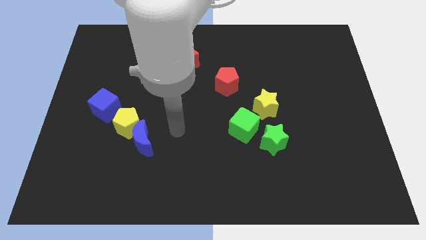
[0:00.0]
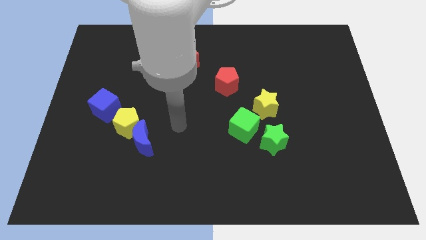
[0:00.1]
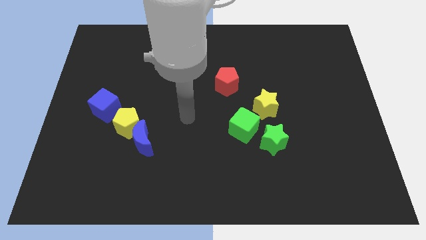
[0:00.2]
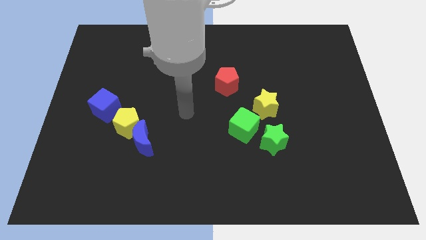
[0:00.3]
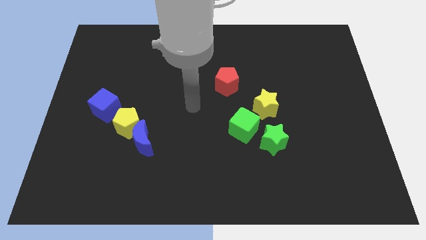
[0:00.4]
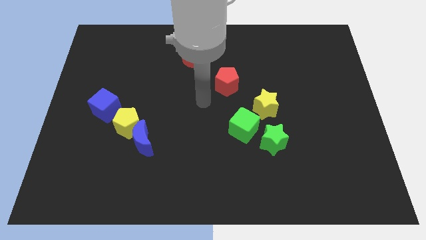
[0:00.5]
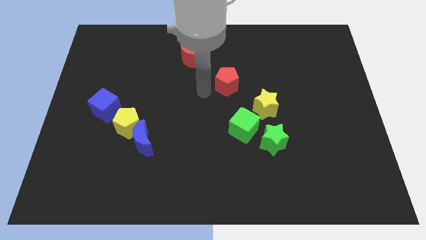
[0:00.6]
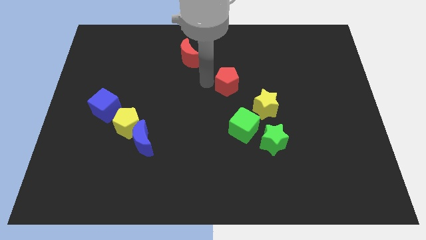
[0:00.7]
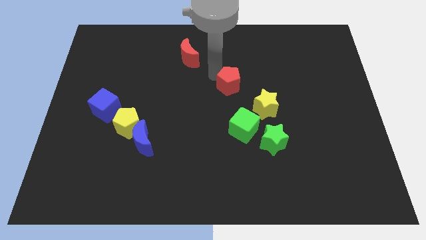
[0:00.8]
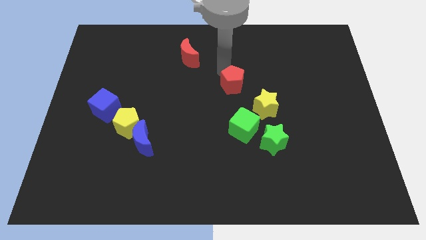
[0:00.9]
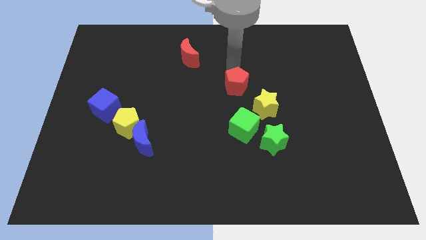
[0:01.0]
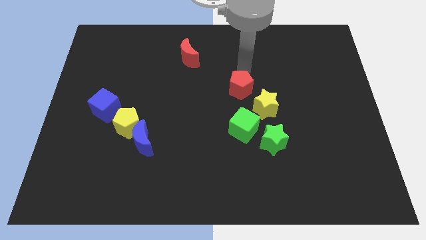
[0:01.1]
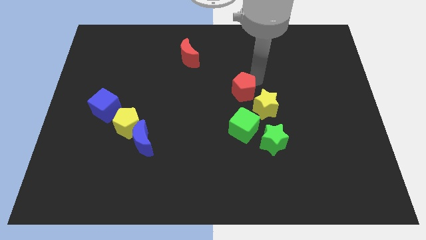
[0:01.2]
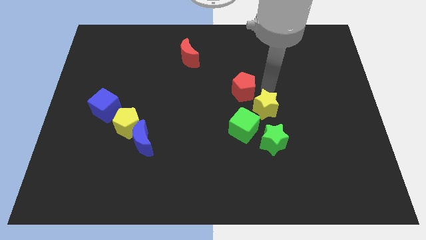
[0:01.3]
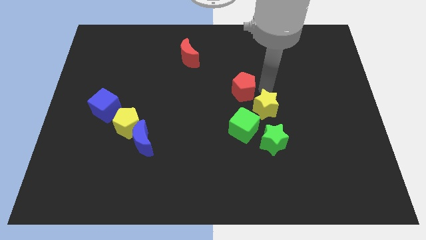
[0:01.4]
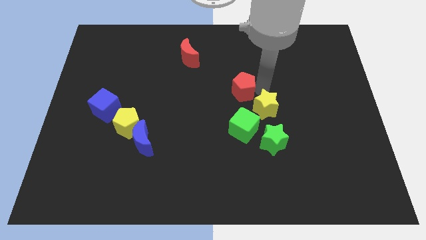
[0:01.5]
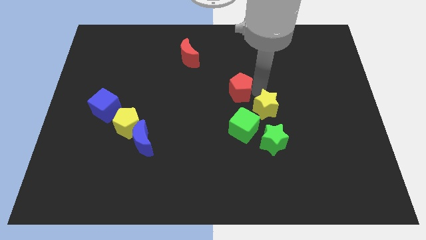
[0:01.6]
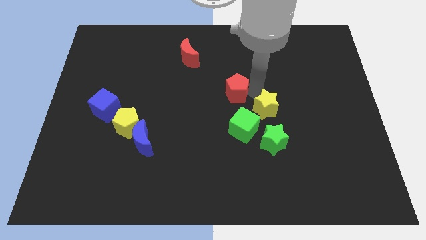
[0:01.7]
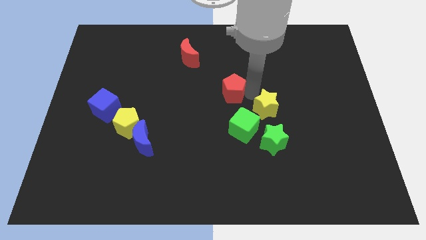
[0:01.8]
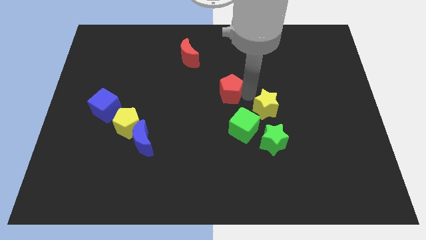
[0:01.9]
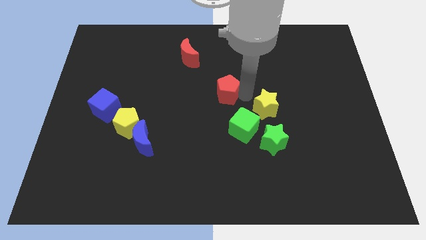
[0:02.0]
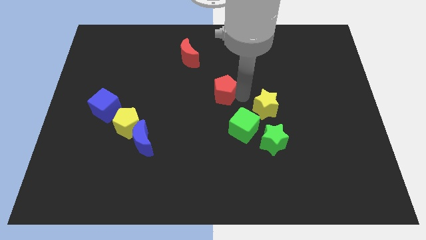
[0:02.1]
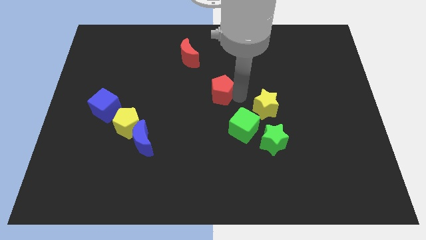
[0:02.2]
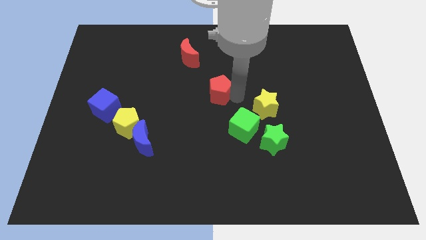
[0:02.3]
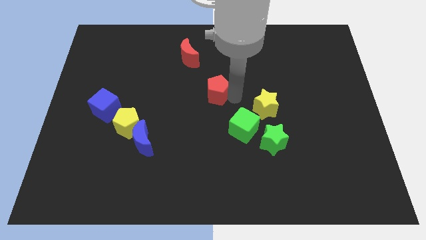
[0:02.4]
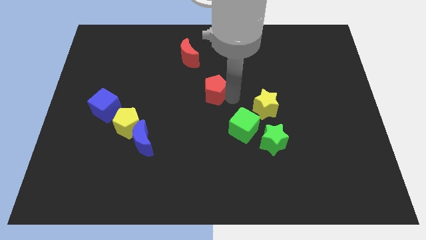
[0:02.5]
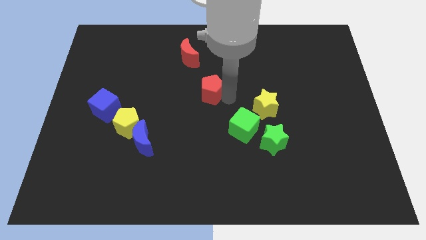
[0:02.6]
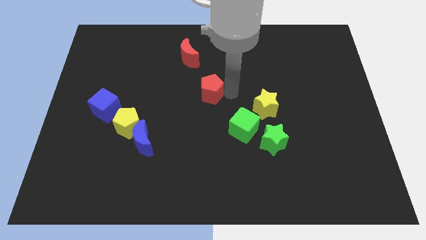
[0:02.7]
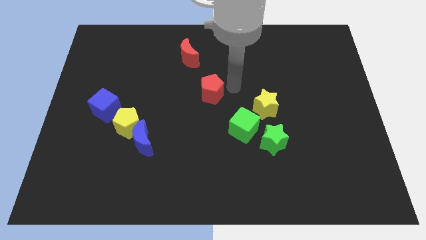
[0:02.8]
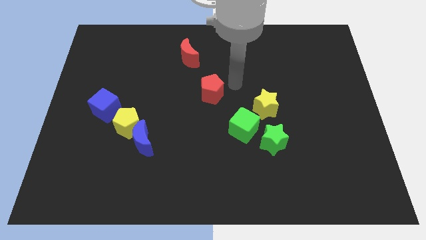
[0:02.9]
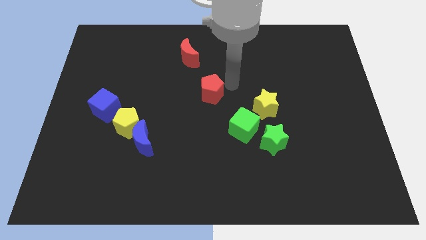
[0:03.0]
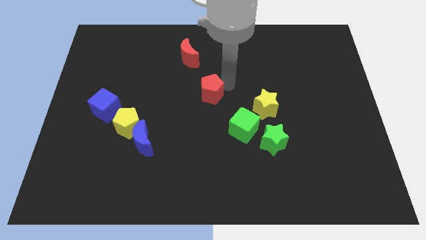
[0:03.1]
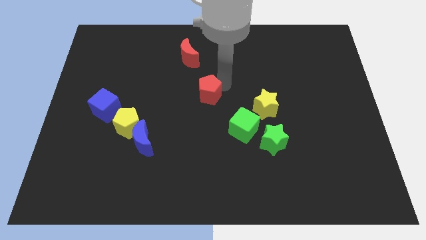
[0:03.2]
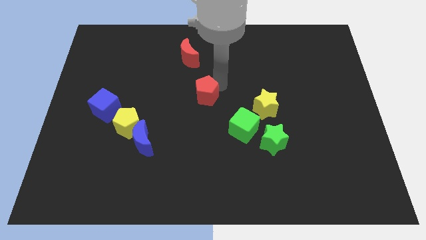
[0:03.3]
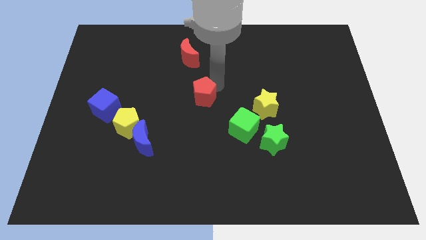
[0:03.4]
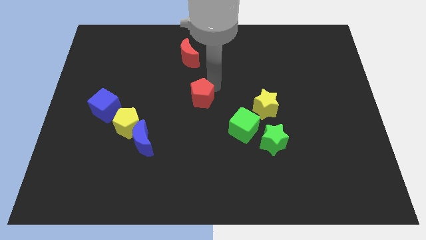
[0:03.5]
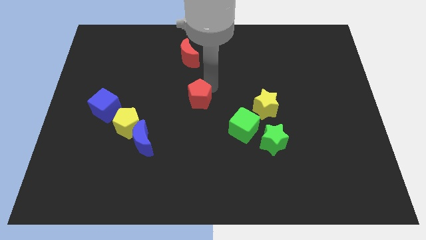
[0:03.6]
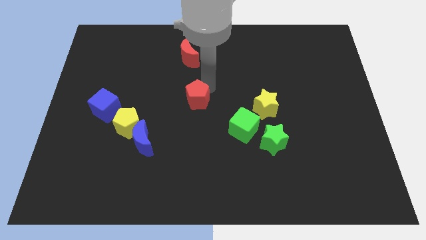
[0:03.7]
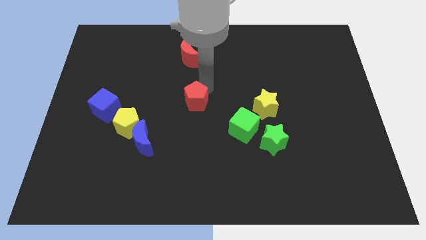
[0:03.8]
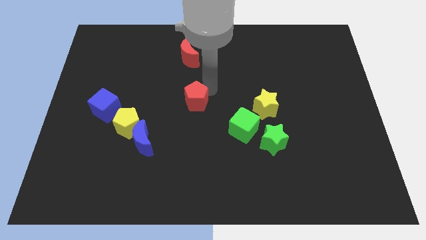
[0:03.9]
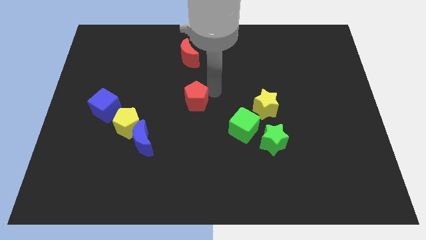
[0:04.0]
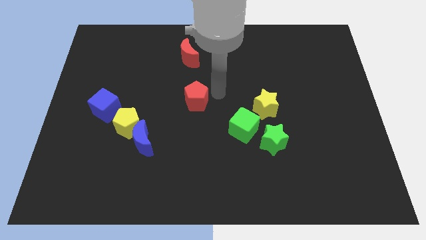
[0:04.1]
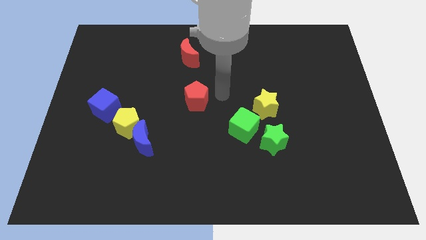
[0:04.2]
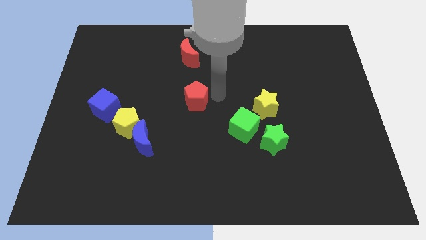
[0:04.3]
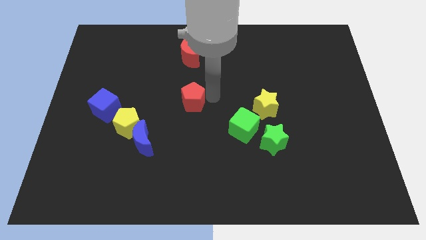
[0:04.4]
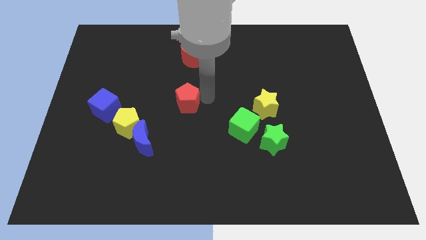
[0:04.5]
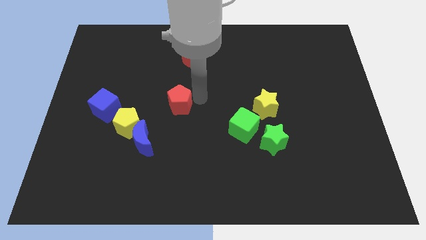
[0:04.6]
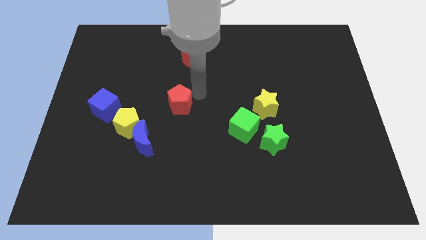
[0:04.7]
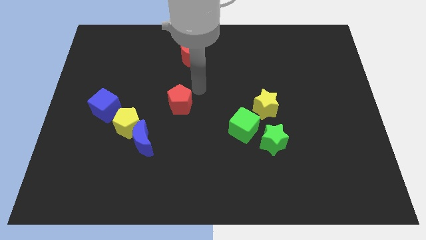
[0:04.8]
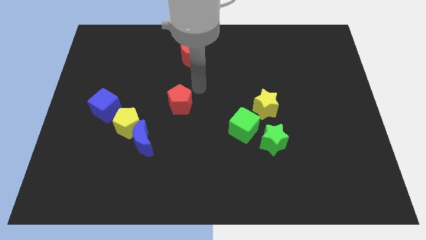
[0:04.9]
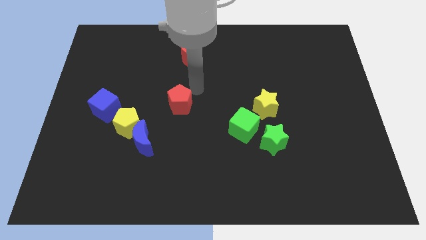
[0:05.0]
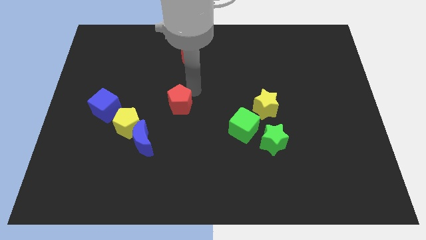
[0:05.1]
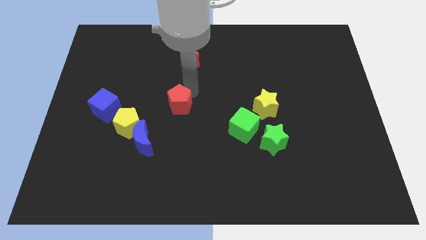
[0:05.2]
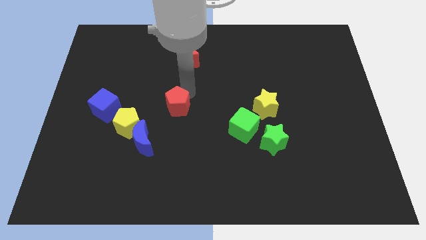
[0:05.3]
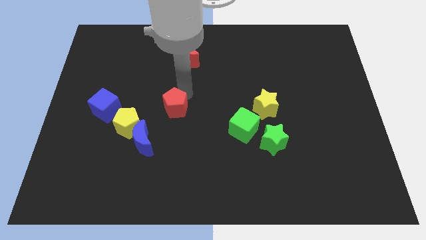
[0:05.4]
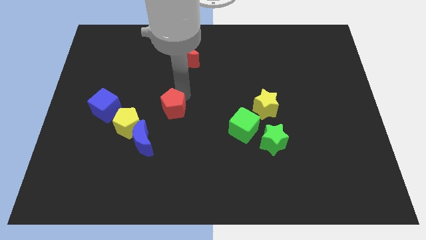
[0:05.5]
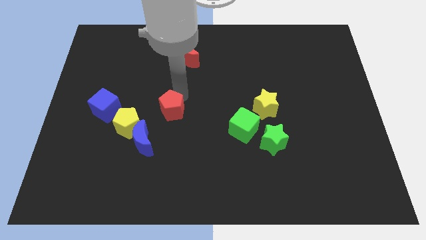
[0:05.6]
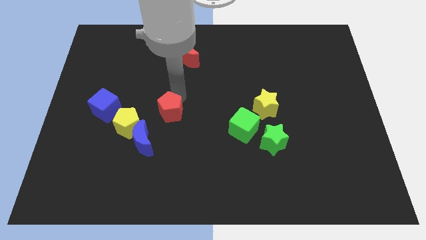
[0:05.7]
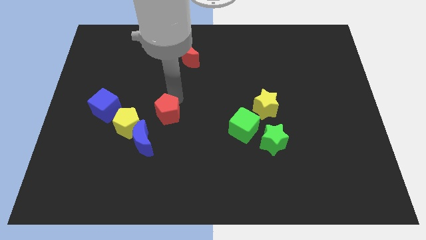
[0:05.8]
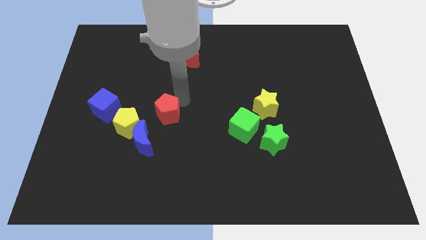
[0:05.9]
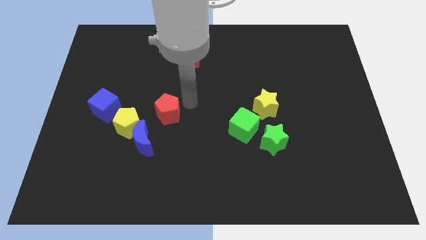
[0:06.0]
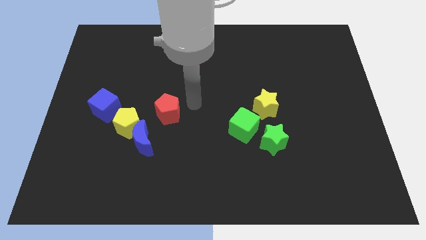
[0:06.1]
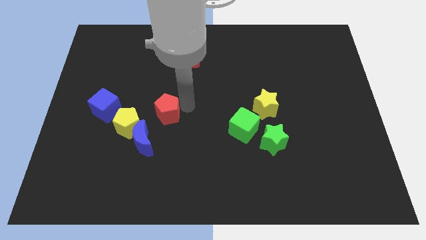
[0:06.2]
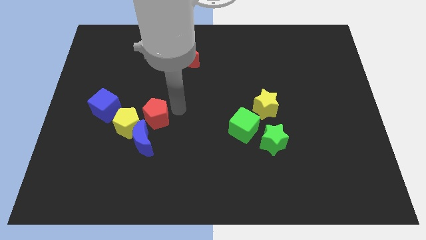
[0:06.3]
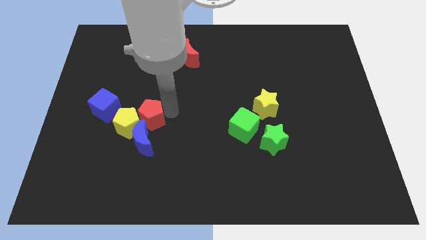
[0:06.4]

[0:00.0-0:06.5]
move the red pentagon to the yellow pentagon

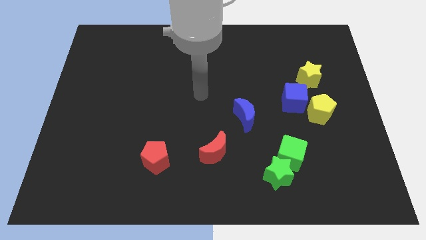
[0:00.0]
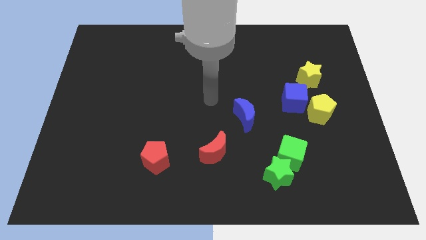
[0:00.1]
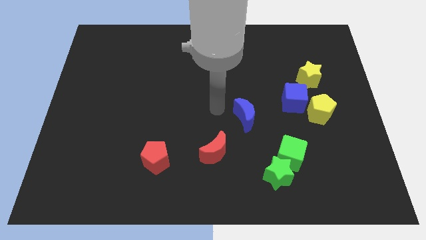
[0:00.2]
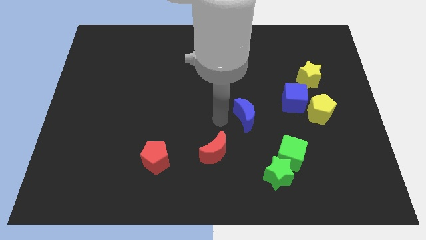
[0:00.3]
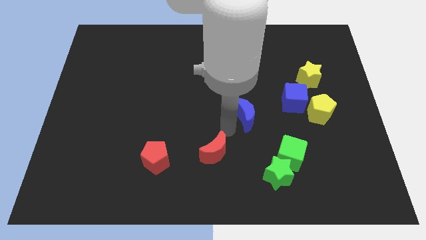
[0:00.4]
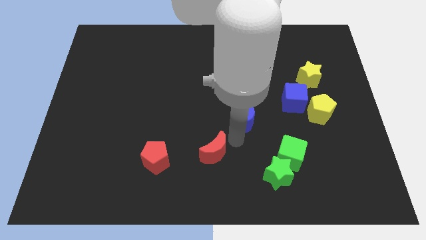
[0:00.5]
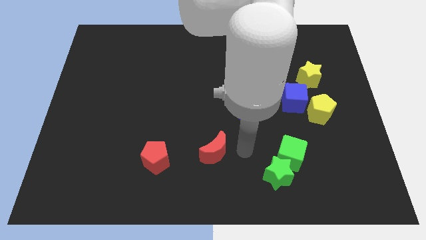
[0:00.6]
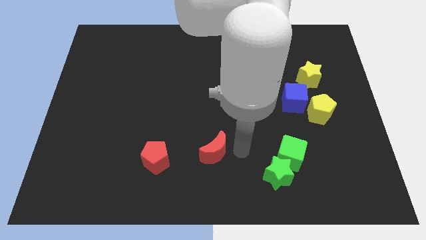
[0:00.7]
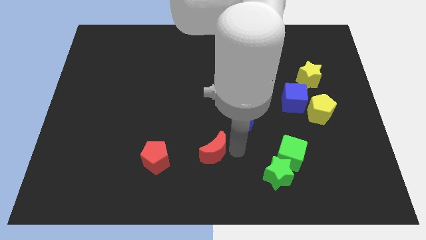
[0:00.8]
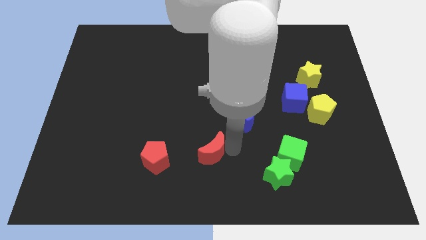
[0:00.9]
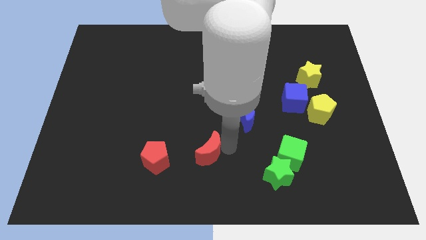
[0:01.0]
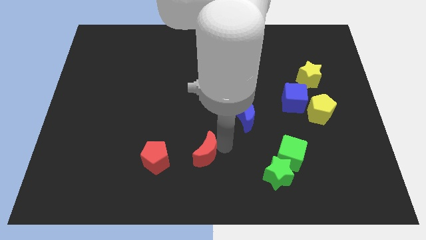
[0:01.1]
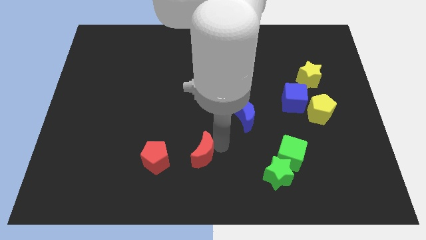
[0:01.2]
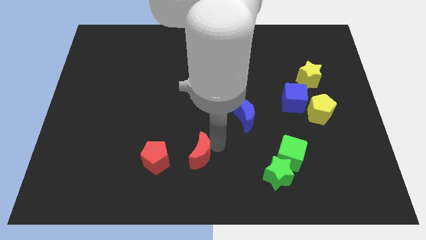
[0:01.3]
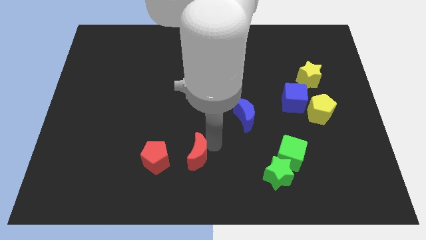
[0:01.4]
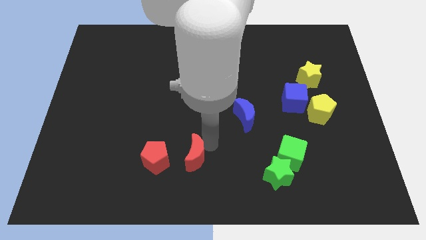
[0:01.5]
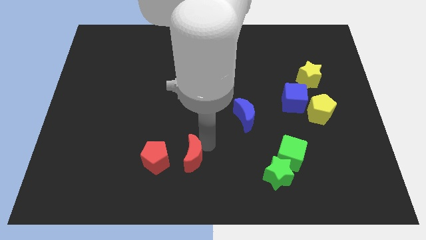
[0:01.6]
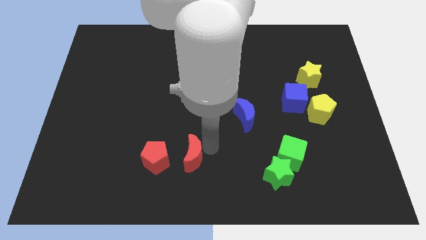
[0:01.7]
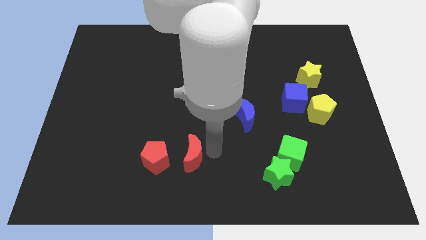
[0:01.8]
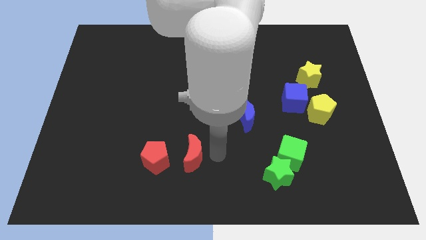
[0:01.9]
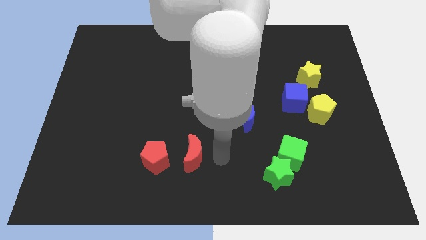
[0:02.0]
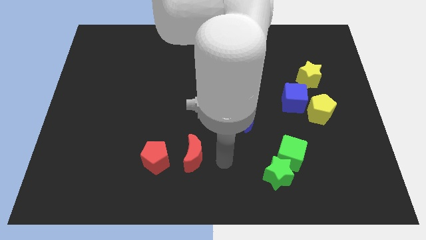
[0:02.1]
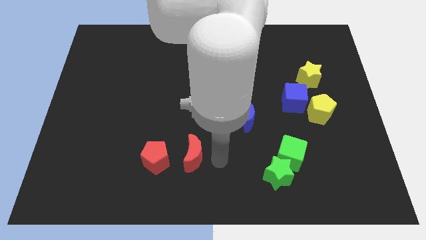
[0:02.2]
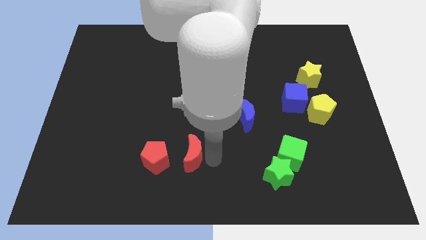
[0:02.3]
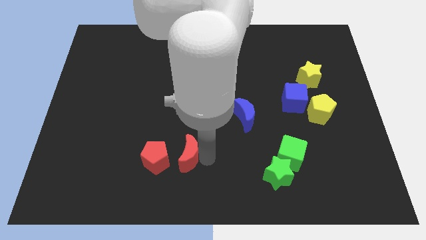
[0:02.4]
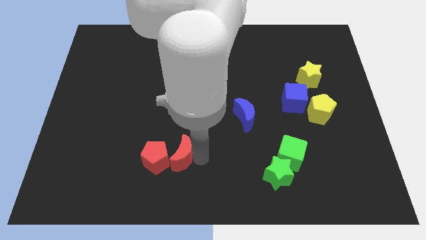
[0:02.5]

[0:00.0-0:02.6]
push the red moon next to the red pentagon
